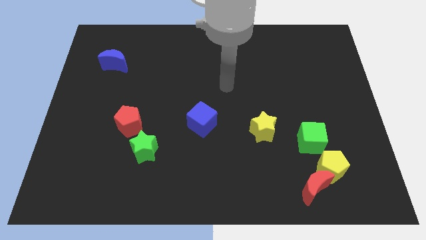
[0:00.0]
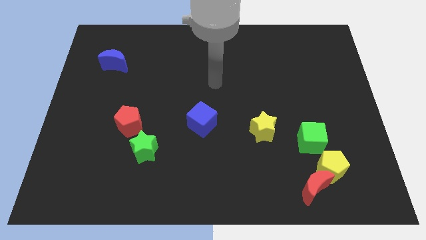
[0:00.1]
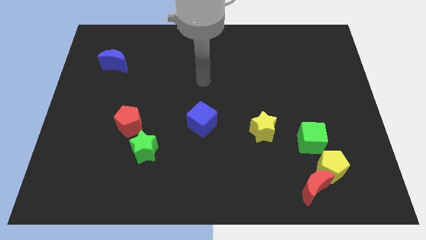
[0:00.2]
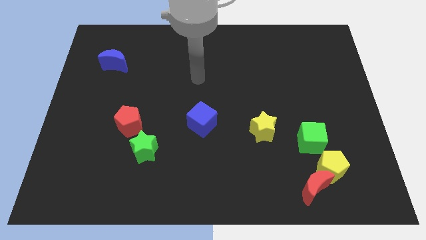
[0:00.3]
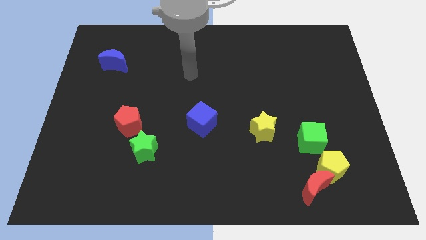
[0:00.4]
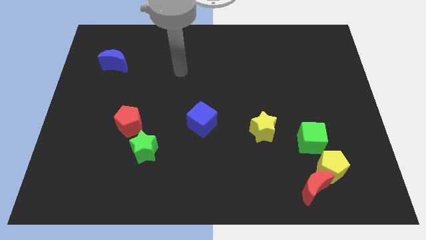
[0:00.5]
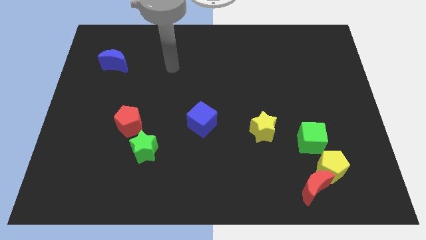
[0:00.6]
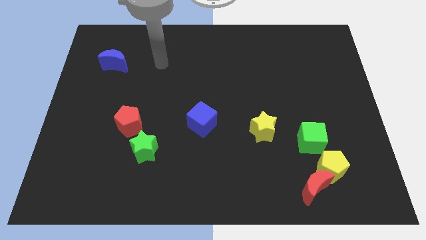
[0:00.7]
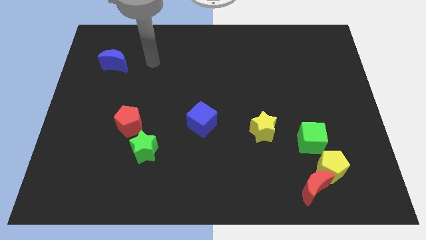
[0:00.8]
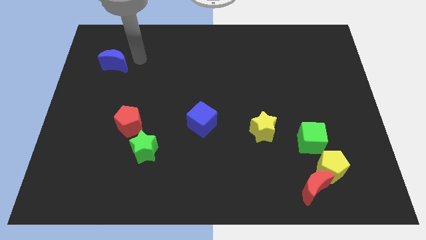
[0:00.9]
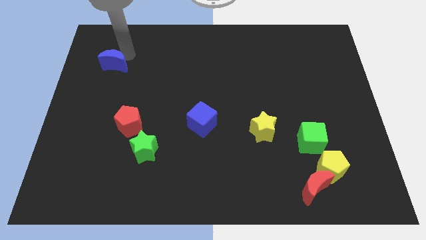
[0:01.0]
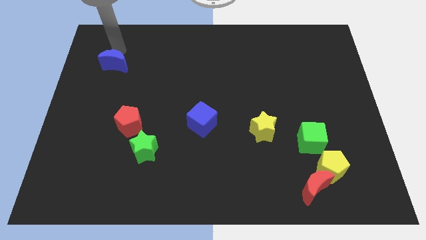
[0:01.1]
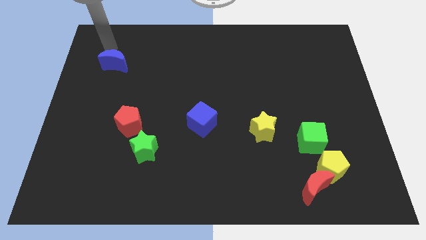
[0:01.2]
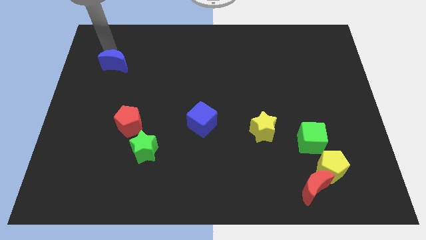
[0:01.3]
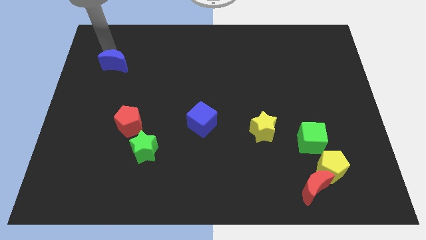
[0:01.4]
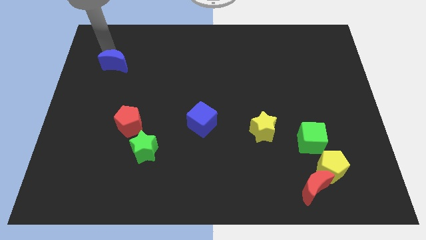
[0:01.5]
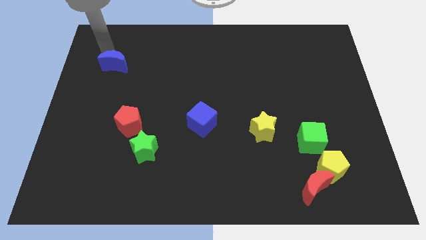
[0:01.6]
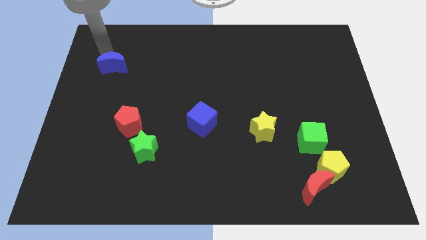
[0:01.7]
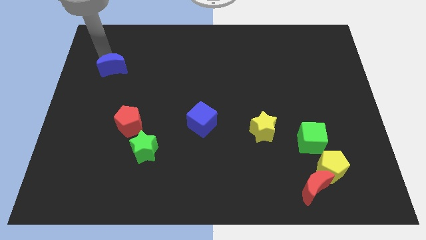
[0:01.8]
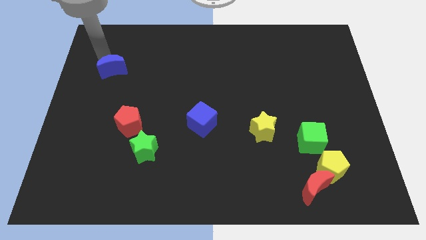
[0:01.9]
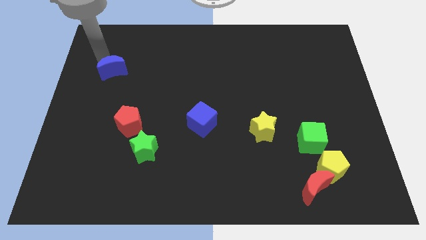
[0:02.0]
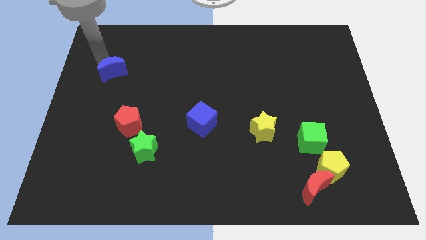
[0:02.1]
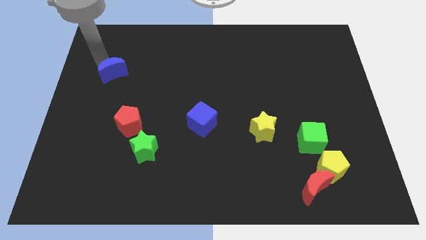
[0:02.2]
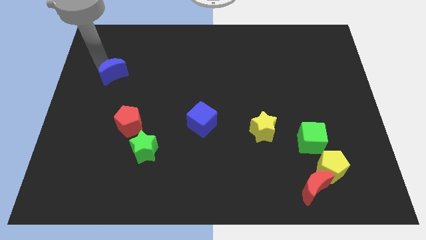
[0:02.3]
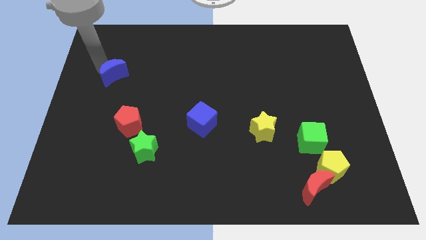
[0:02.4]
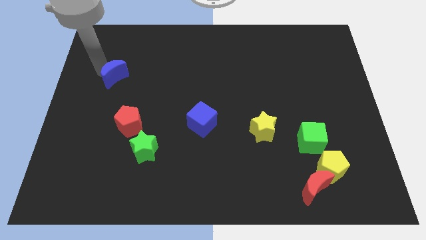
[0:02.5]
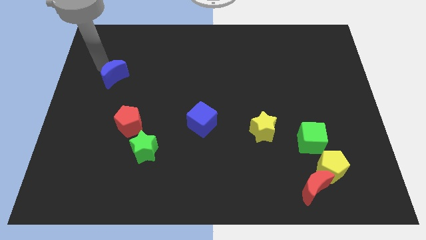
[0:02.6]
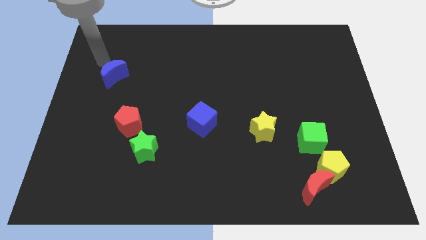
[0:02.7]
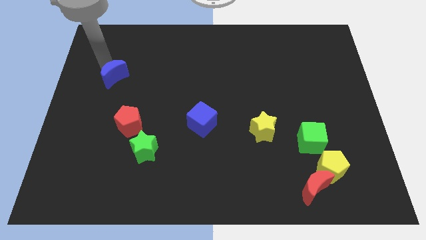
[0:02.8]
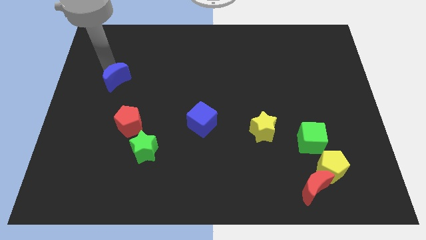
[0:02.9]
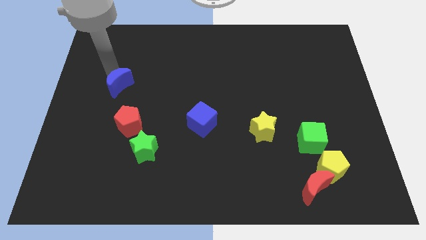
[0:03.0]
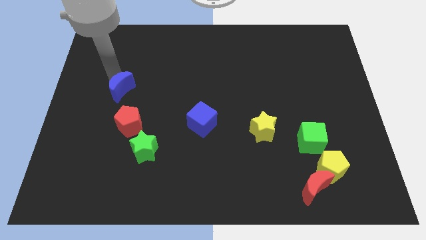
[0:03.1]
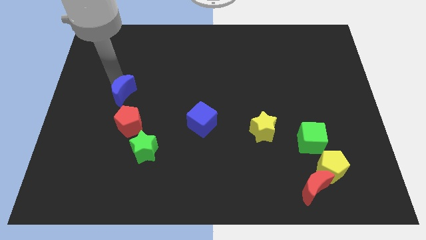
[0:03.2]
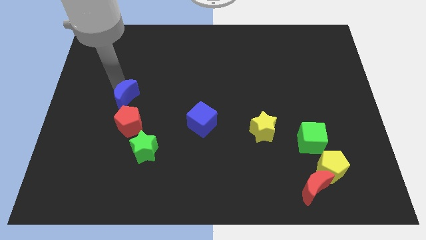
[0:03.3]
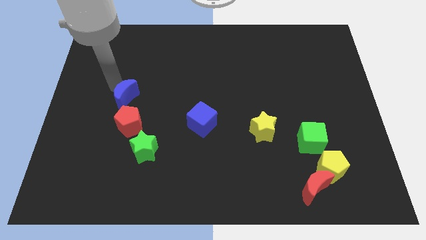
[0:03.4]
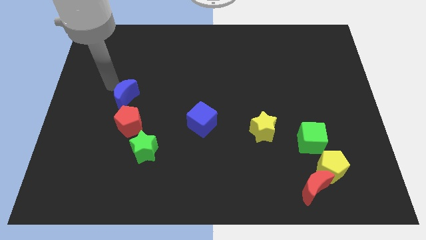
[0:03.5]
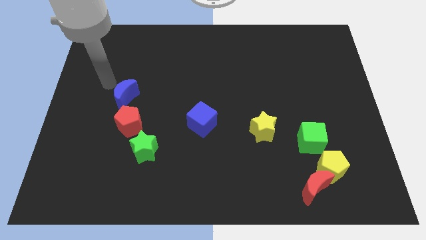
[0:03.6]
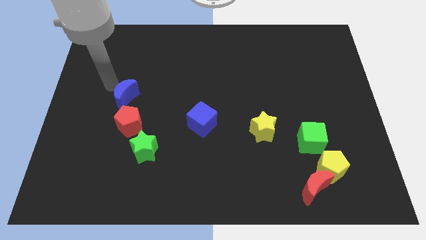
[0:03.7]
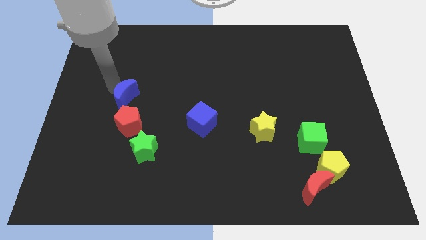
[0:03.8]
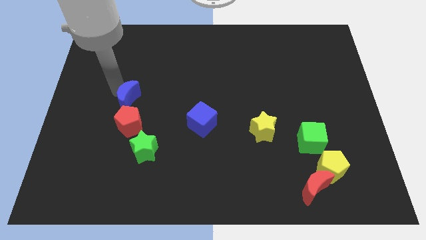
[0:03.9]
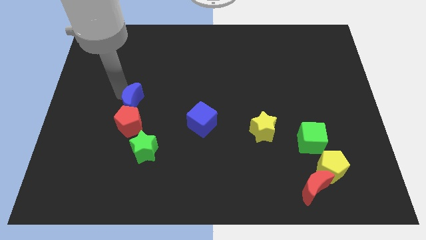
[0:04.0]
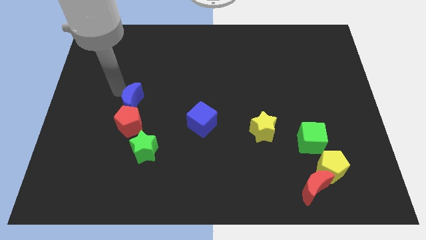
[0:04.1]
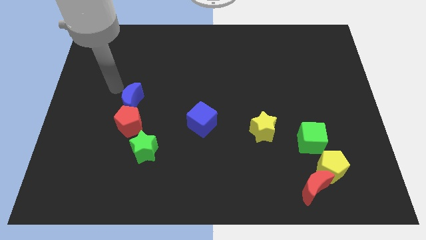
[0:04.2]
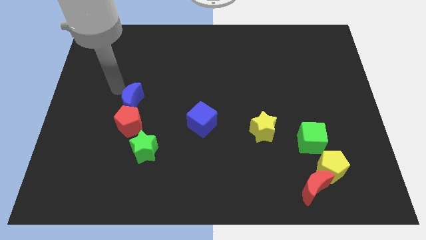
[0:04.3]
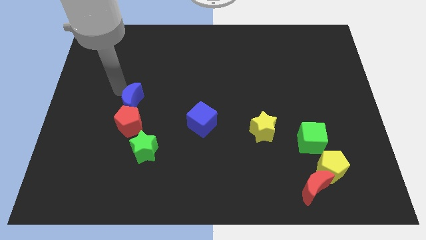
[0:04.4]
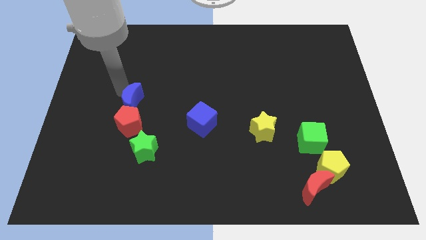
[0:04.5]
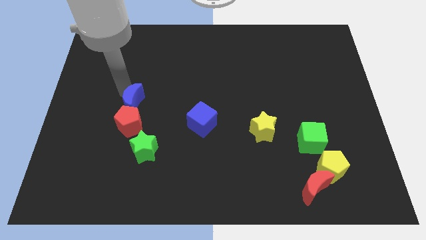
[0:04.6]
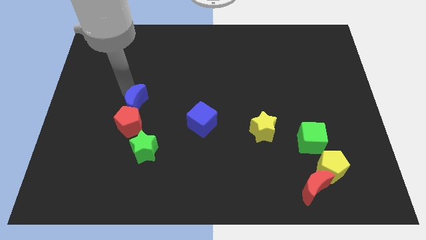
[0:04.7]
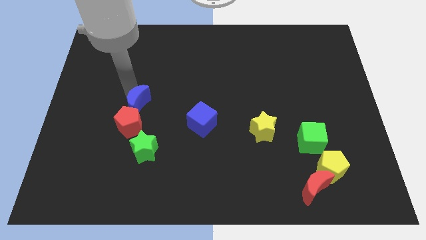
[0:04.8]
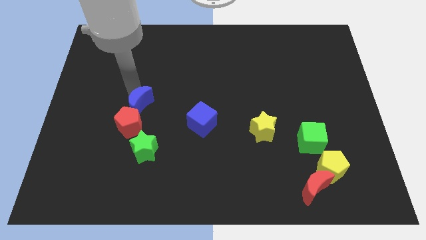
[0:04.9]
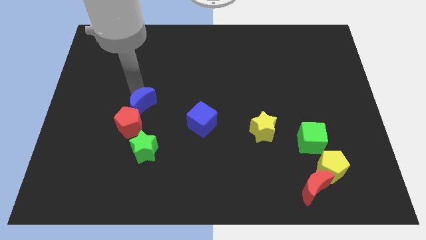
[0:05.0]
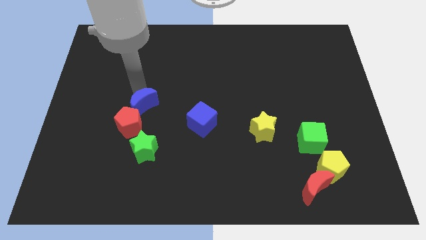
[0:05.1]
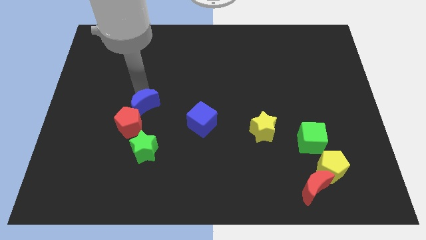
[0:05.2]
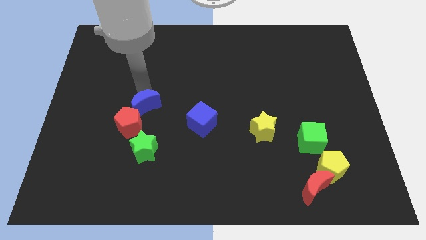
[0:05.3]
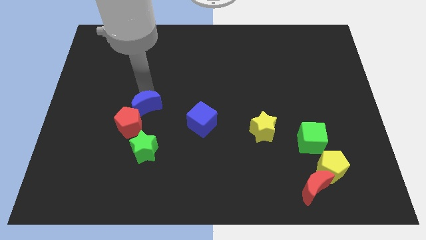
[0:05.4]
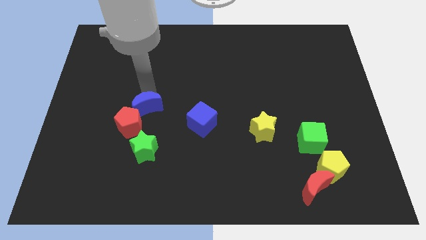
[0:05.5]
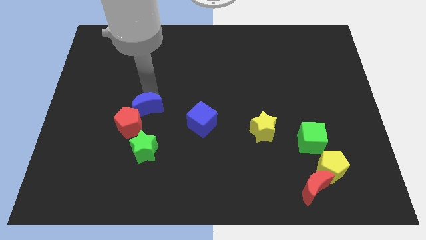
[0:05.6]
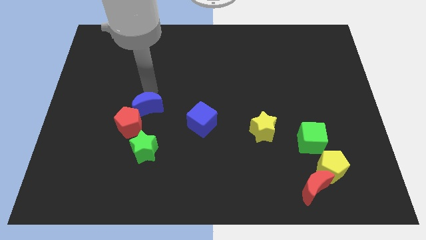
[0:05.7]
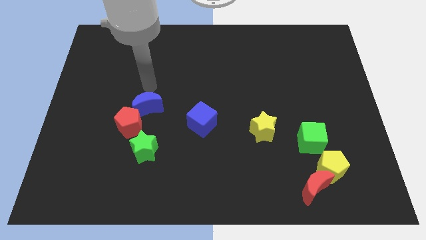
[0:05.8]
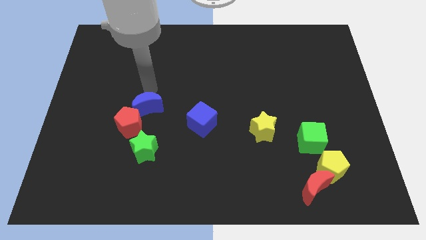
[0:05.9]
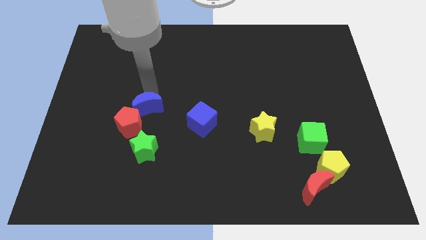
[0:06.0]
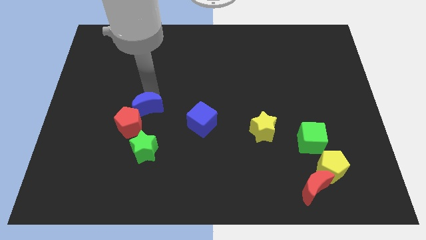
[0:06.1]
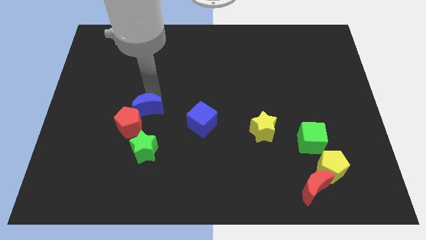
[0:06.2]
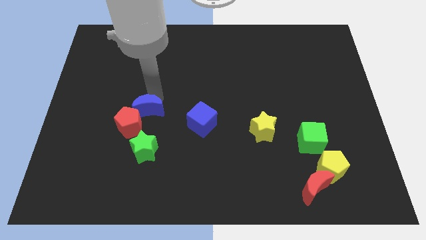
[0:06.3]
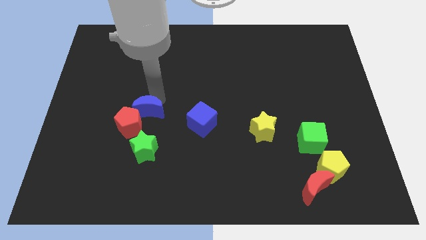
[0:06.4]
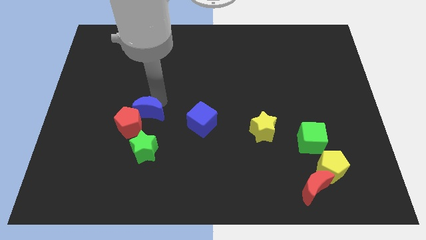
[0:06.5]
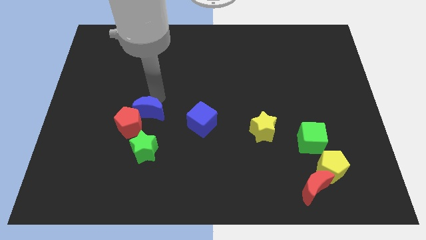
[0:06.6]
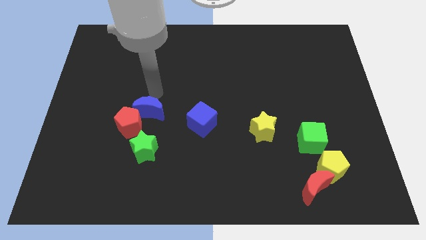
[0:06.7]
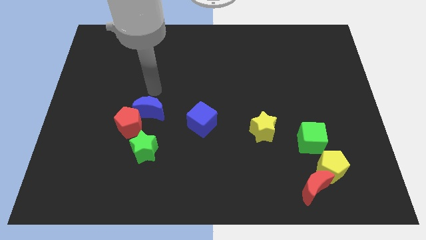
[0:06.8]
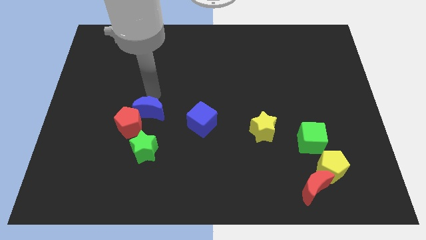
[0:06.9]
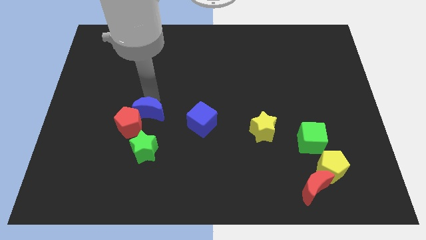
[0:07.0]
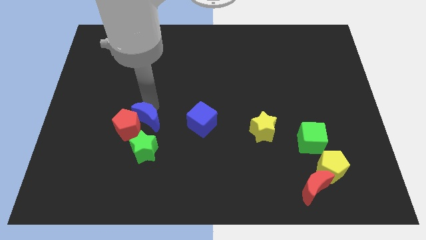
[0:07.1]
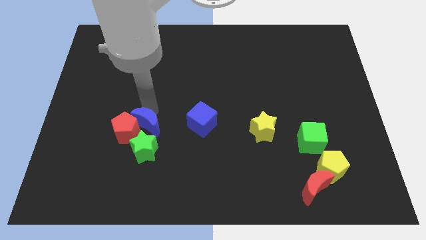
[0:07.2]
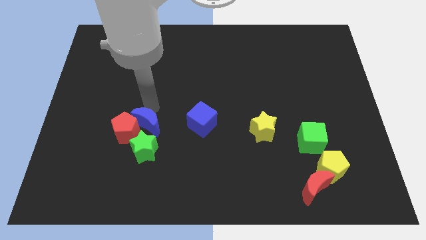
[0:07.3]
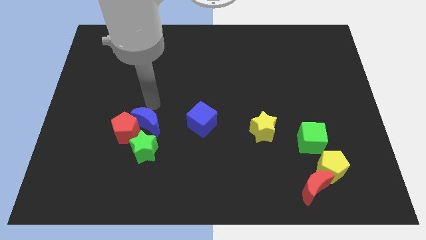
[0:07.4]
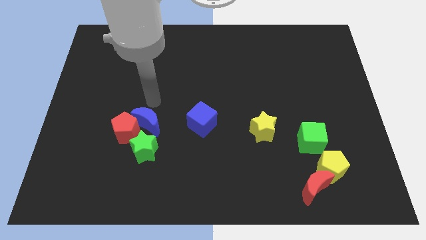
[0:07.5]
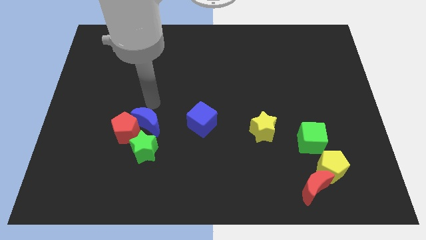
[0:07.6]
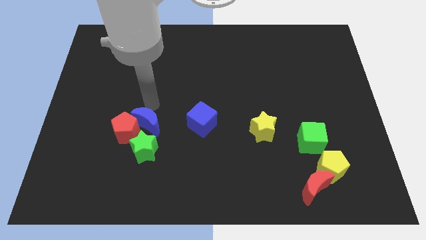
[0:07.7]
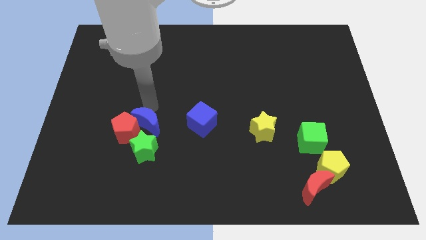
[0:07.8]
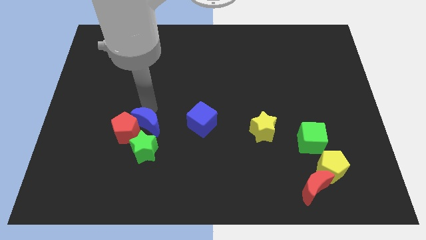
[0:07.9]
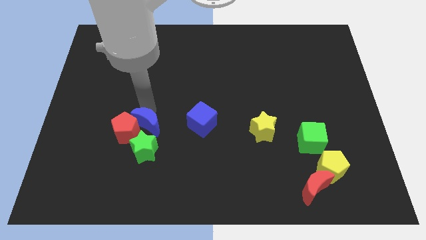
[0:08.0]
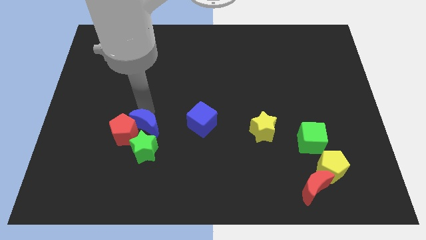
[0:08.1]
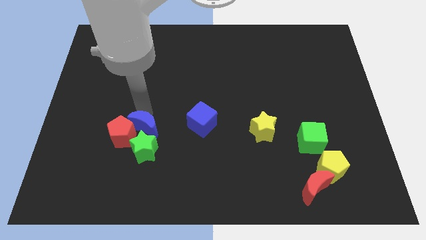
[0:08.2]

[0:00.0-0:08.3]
move the blue moon close to the green star
